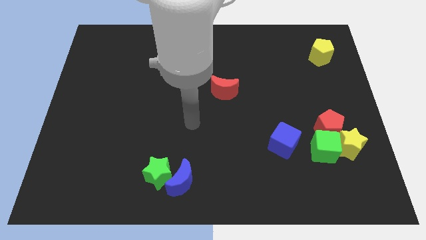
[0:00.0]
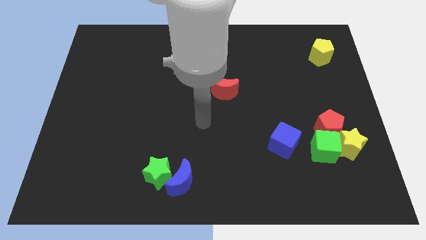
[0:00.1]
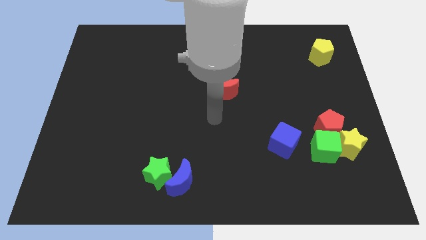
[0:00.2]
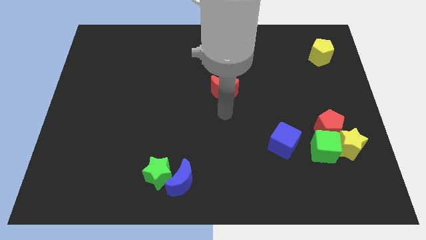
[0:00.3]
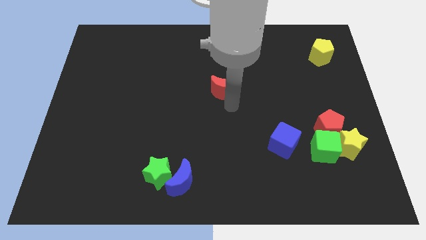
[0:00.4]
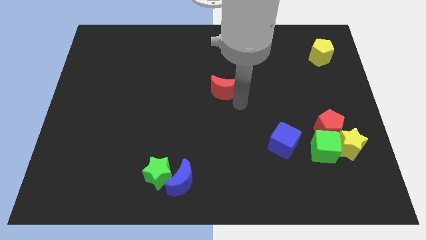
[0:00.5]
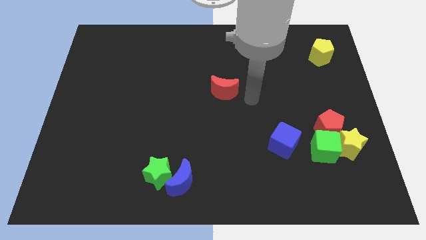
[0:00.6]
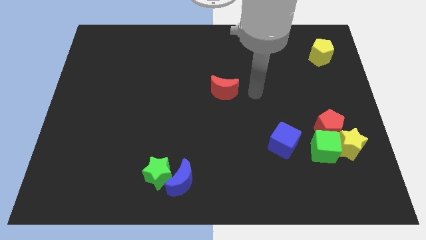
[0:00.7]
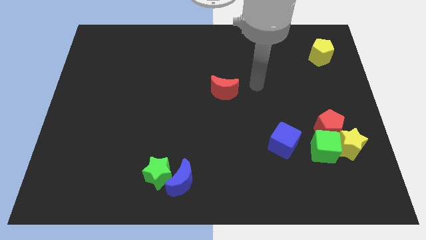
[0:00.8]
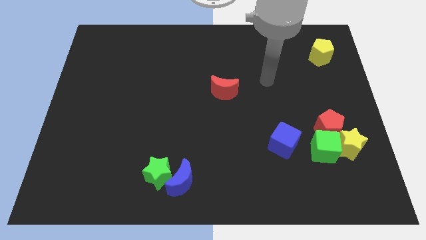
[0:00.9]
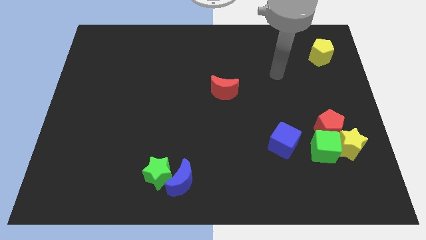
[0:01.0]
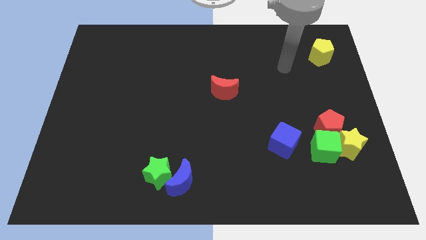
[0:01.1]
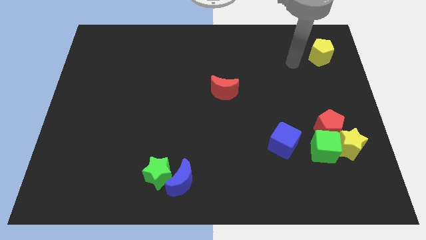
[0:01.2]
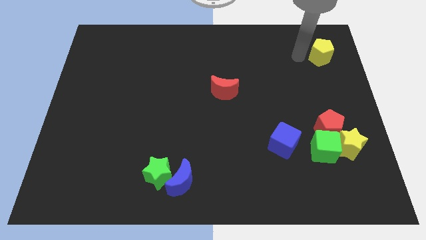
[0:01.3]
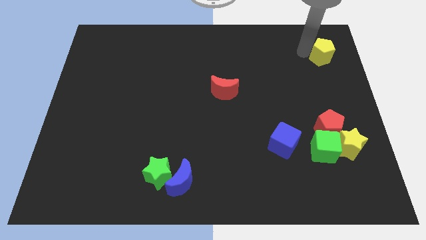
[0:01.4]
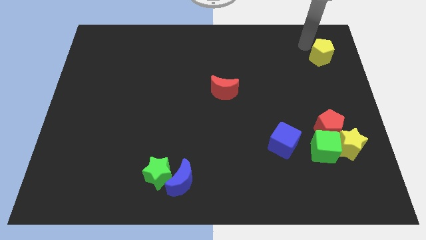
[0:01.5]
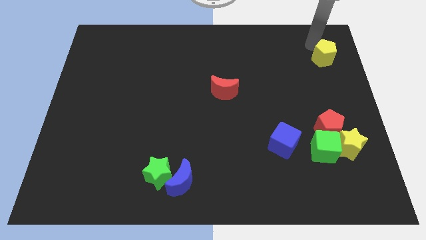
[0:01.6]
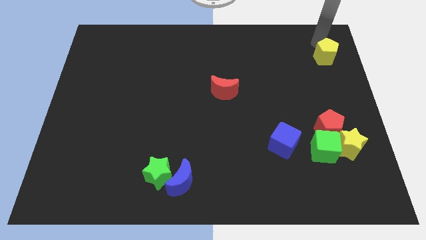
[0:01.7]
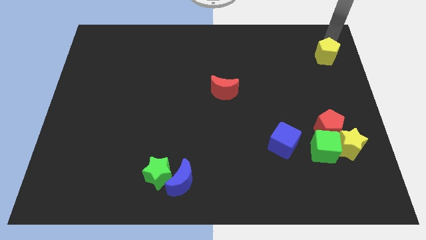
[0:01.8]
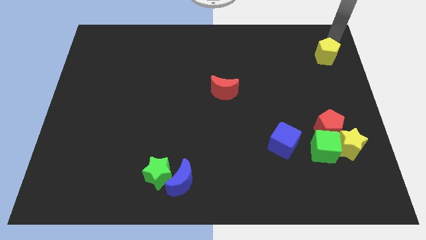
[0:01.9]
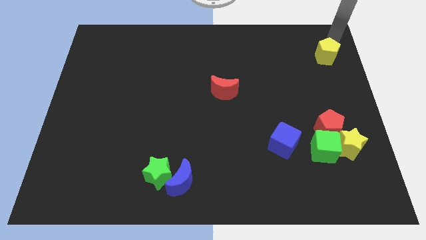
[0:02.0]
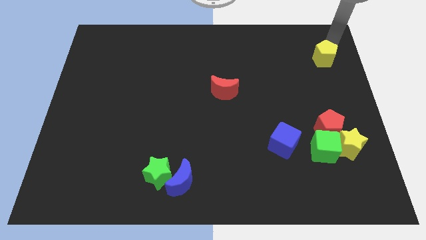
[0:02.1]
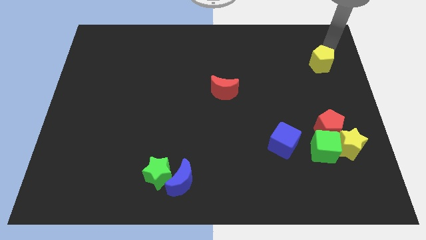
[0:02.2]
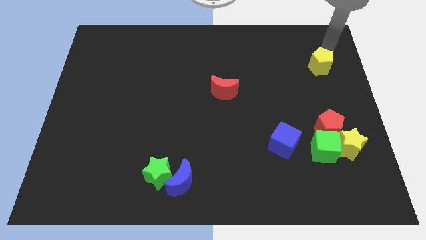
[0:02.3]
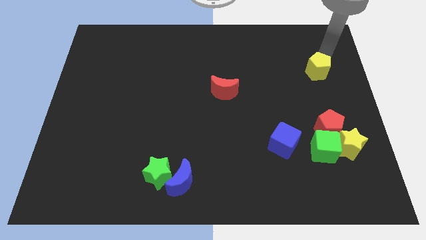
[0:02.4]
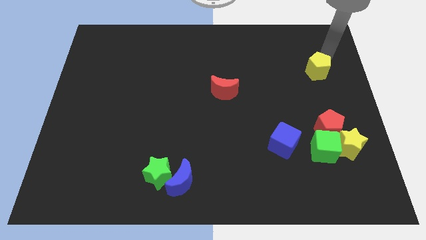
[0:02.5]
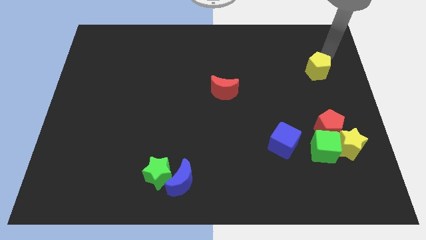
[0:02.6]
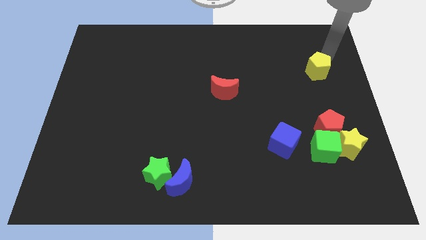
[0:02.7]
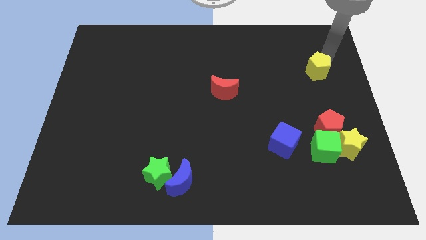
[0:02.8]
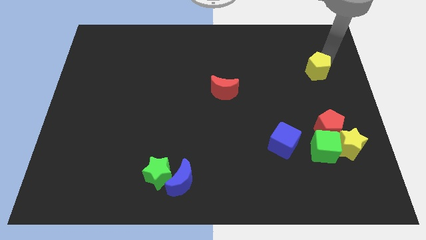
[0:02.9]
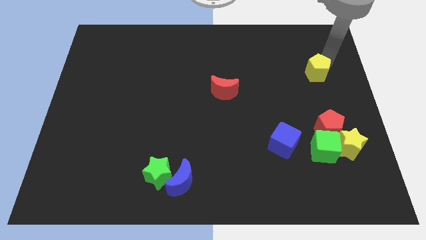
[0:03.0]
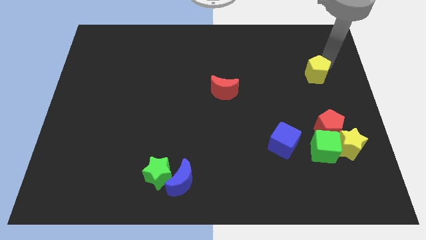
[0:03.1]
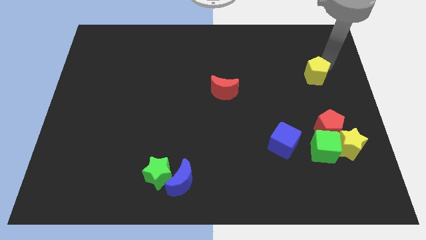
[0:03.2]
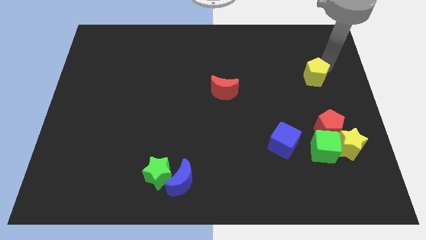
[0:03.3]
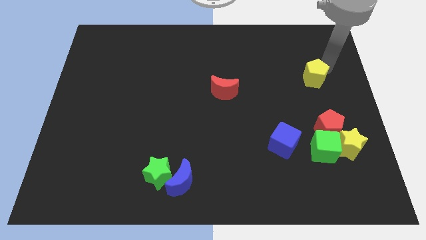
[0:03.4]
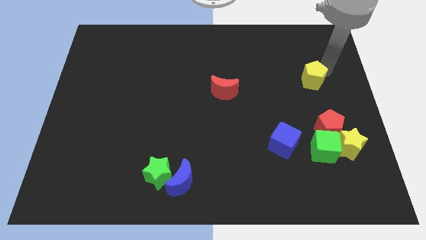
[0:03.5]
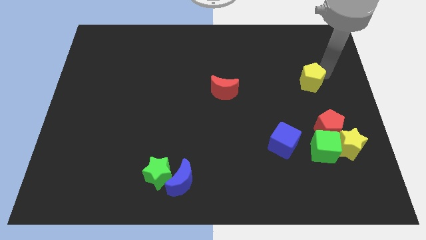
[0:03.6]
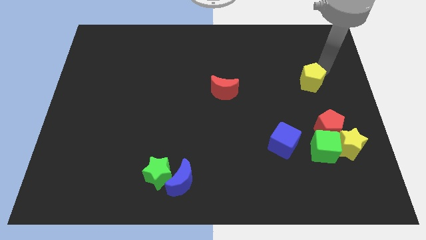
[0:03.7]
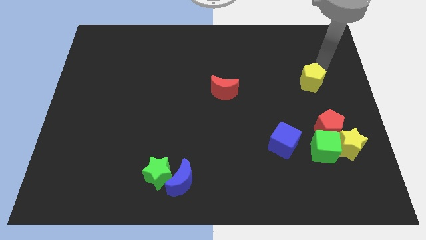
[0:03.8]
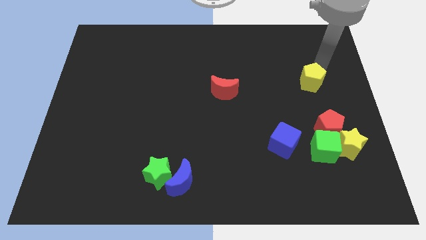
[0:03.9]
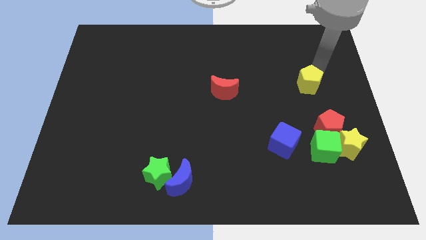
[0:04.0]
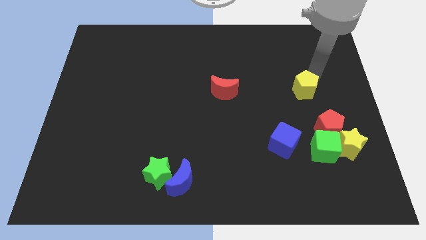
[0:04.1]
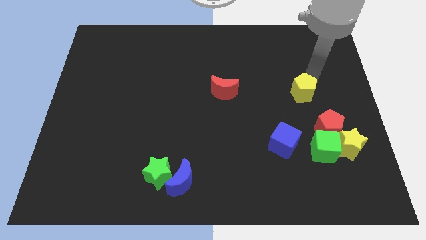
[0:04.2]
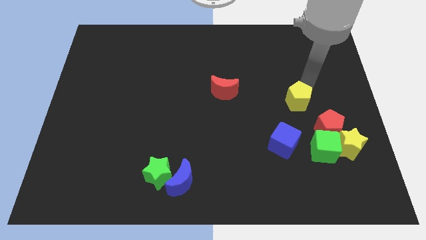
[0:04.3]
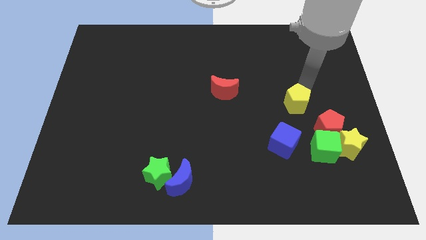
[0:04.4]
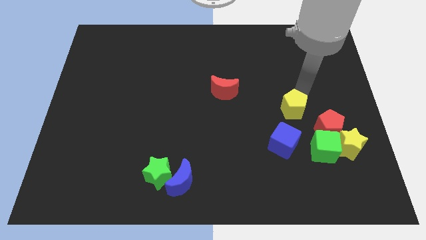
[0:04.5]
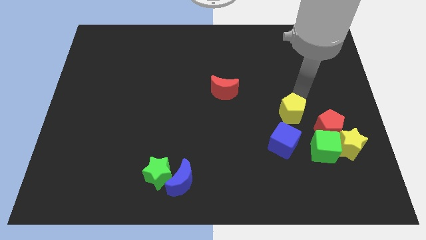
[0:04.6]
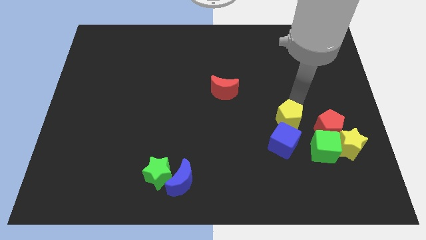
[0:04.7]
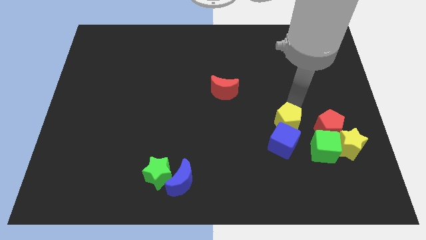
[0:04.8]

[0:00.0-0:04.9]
push the yellow pentagon towards the blue cube

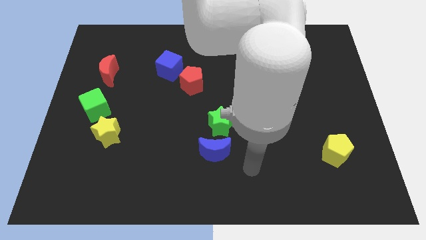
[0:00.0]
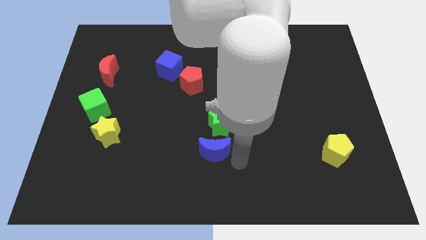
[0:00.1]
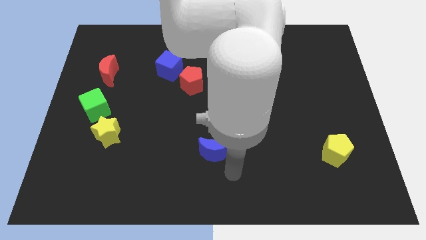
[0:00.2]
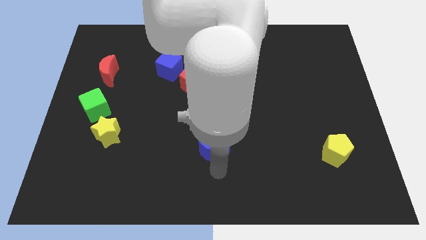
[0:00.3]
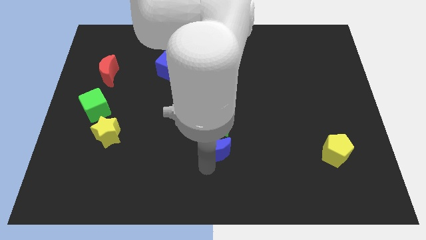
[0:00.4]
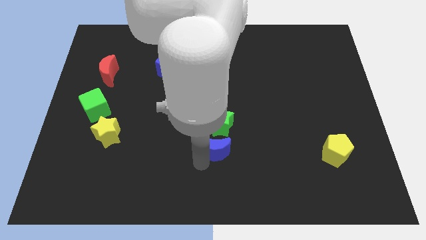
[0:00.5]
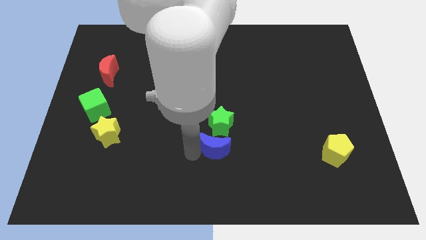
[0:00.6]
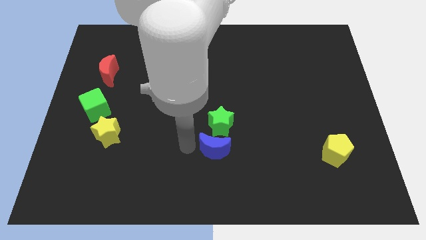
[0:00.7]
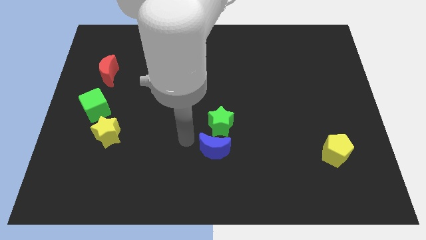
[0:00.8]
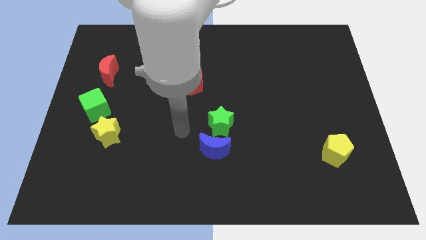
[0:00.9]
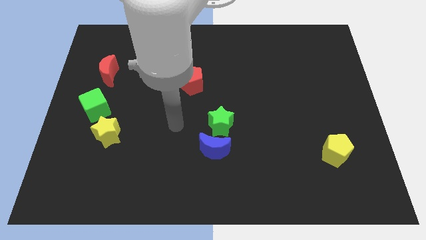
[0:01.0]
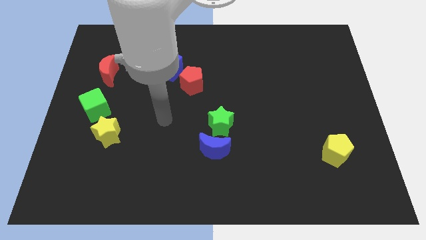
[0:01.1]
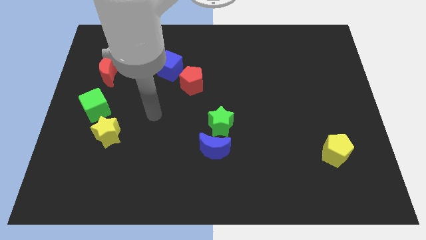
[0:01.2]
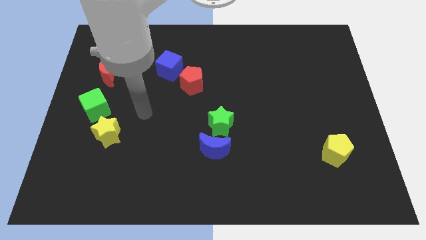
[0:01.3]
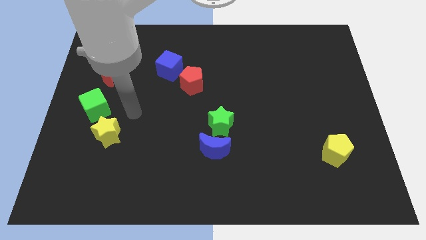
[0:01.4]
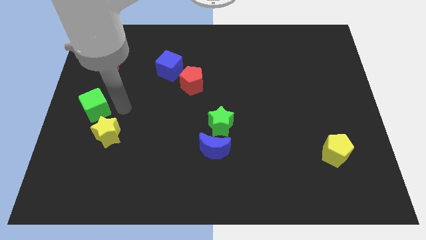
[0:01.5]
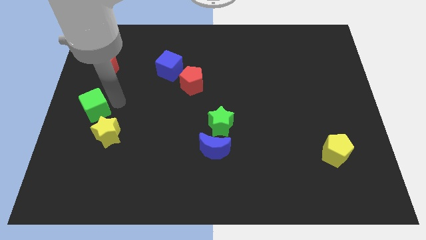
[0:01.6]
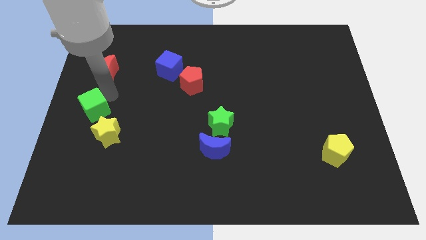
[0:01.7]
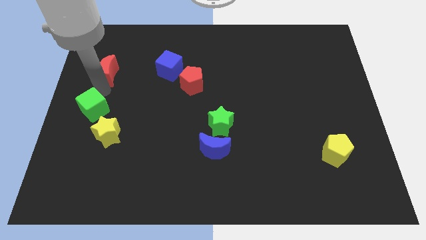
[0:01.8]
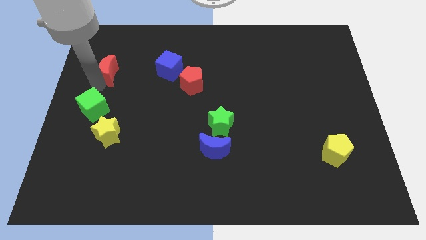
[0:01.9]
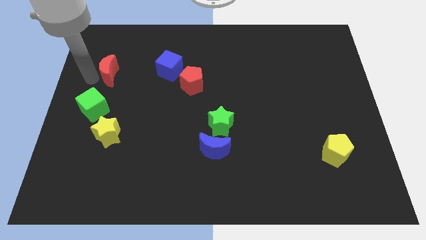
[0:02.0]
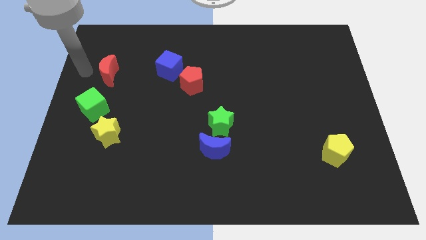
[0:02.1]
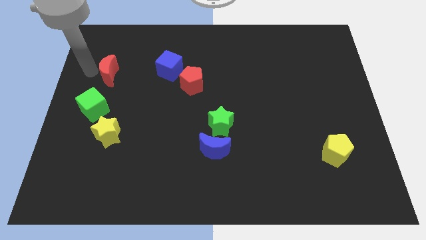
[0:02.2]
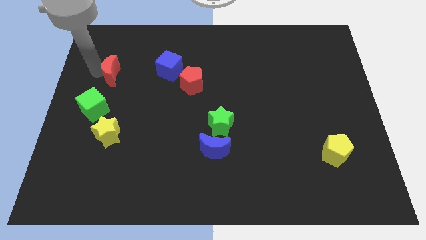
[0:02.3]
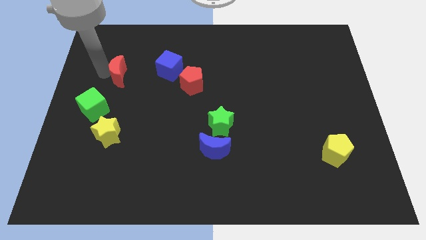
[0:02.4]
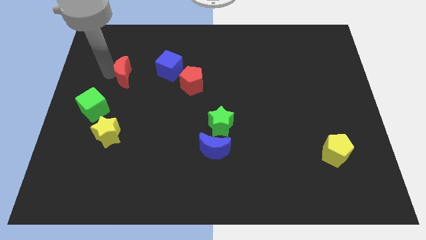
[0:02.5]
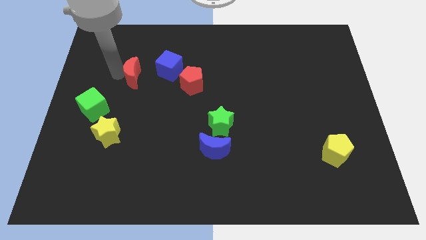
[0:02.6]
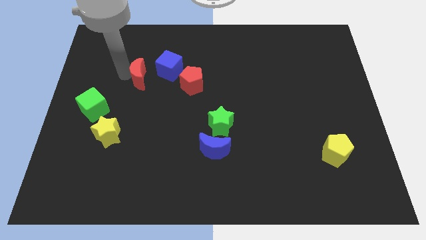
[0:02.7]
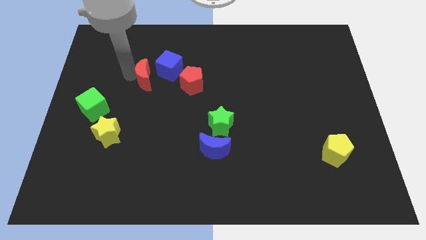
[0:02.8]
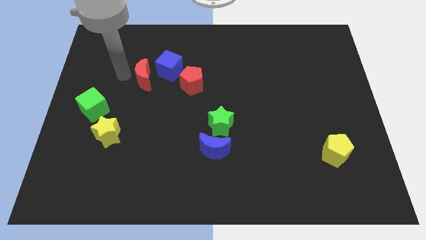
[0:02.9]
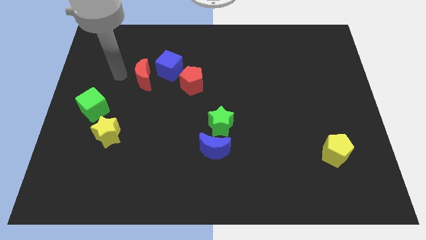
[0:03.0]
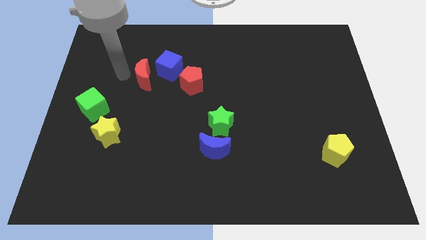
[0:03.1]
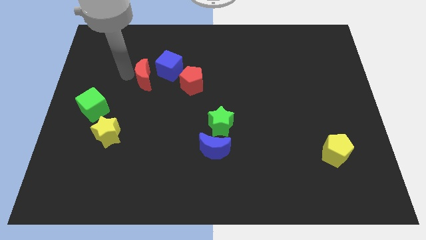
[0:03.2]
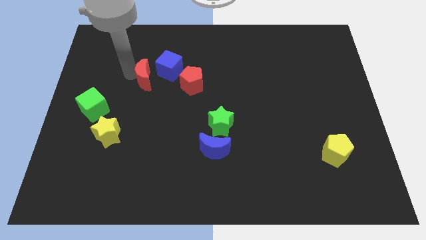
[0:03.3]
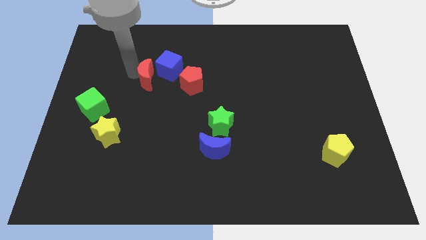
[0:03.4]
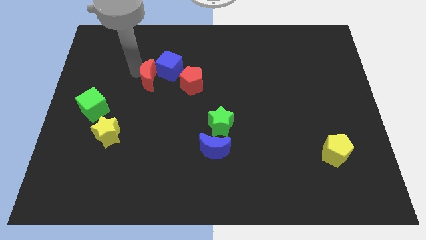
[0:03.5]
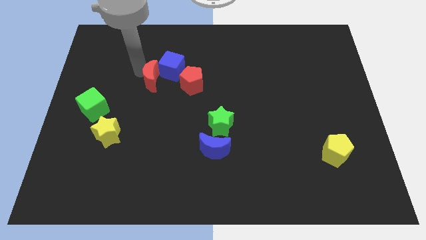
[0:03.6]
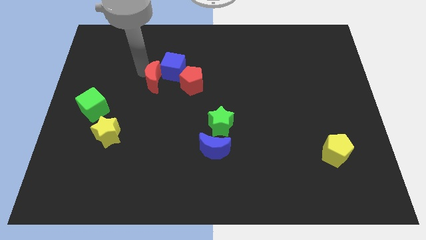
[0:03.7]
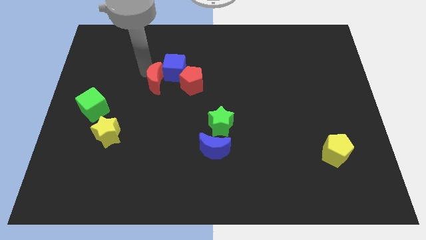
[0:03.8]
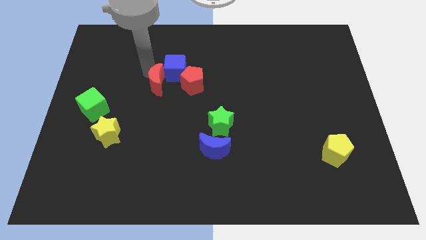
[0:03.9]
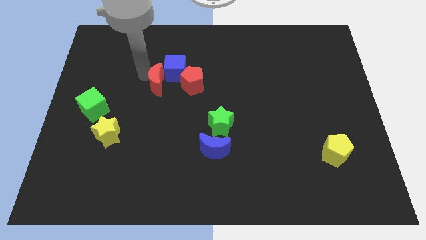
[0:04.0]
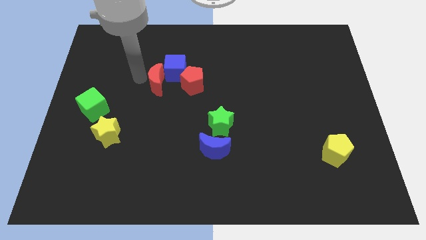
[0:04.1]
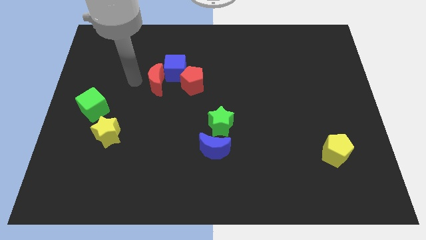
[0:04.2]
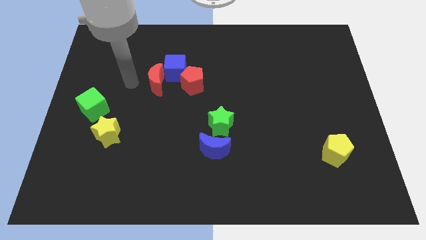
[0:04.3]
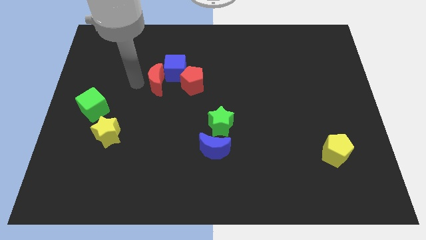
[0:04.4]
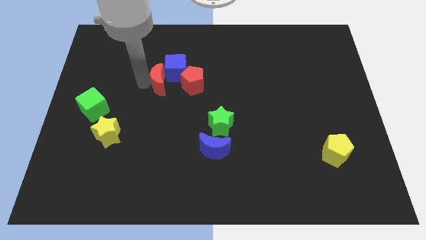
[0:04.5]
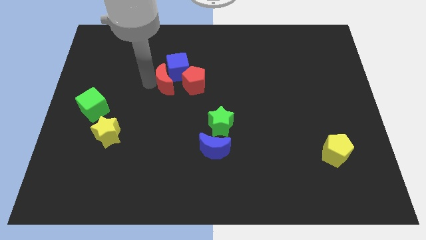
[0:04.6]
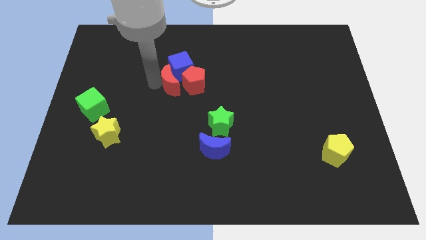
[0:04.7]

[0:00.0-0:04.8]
push the red moon to the red pentagon
